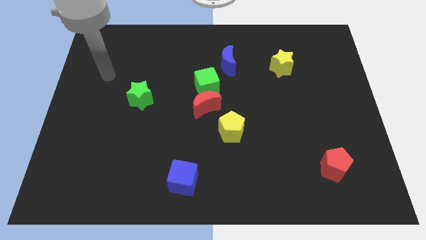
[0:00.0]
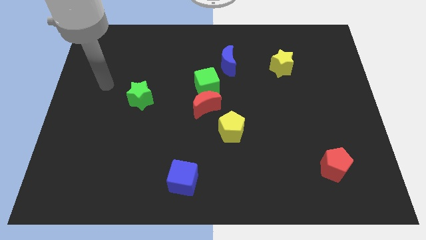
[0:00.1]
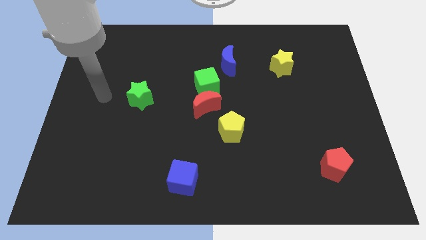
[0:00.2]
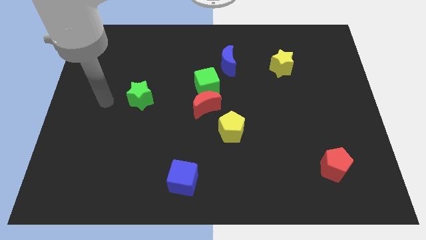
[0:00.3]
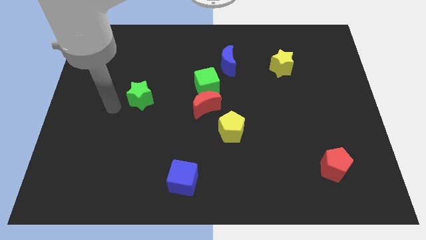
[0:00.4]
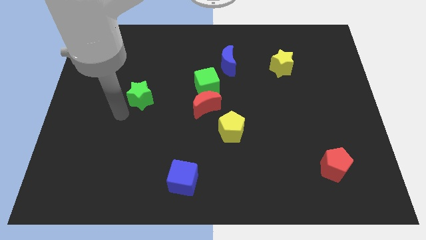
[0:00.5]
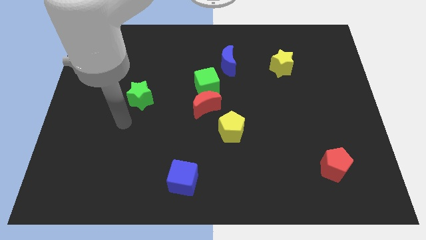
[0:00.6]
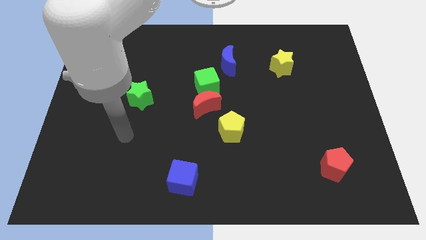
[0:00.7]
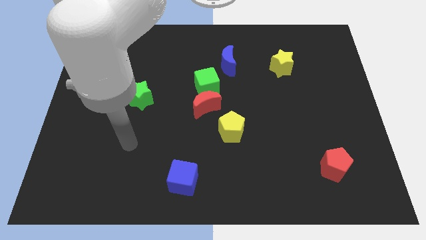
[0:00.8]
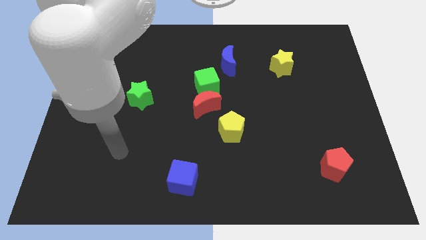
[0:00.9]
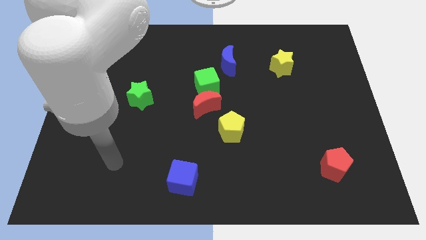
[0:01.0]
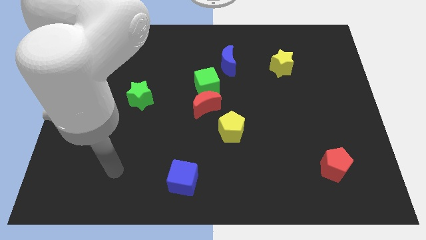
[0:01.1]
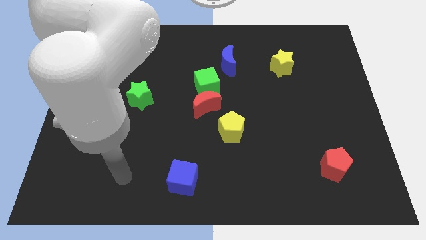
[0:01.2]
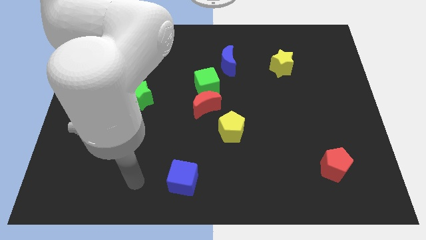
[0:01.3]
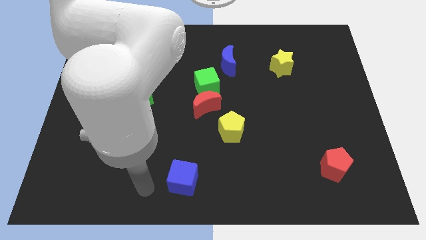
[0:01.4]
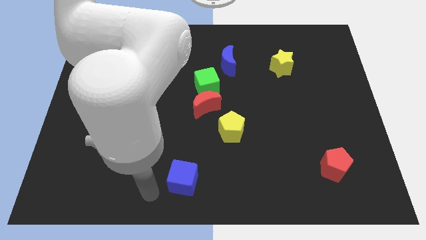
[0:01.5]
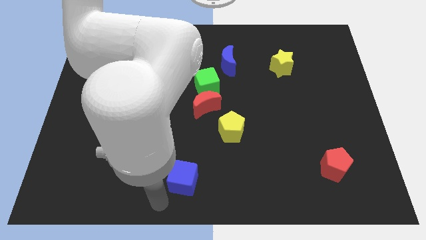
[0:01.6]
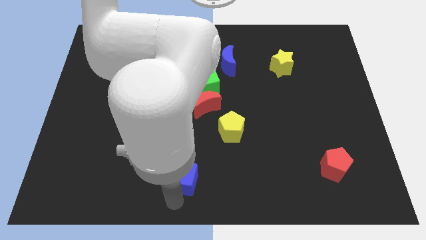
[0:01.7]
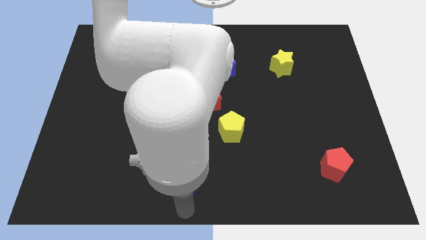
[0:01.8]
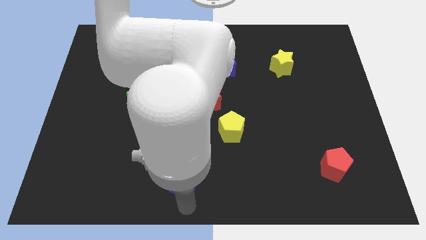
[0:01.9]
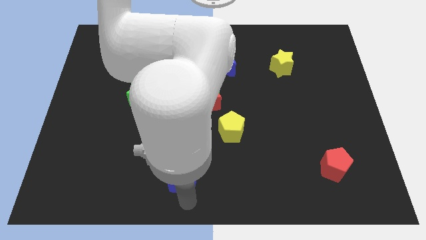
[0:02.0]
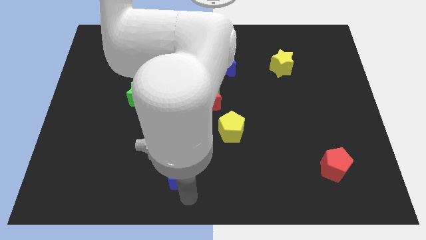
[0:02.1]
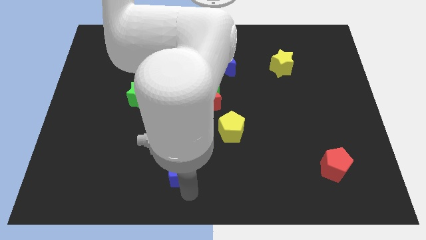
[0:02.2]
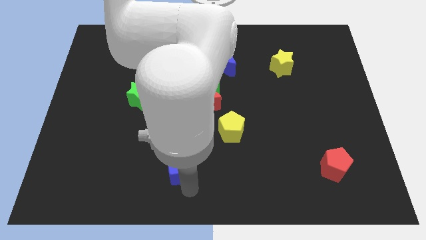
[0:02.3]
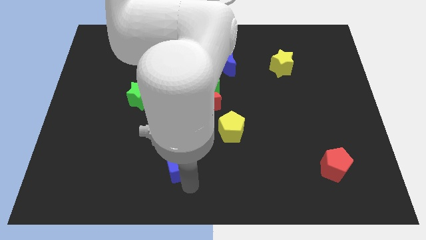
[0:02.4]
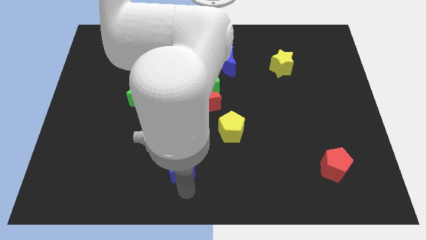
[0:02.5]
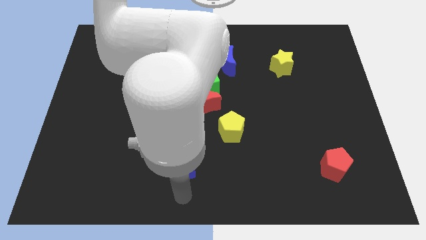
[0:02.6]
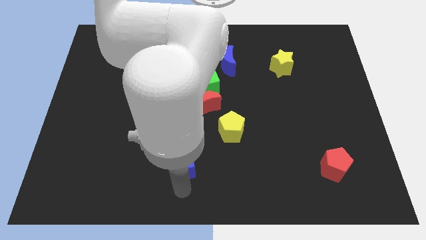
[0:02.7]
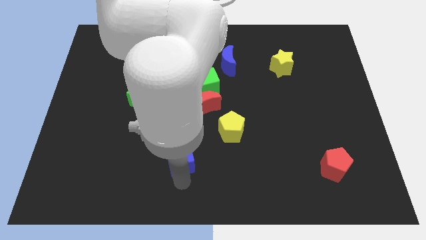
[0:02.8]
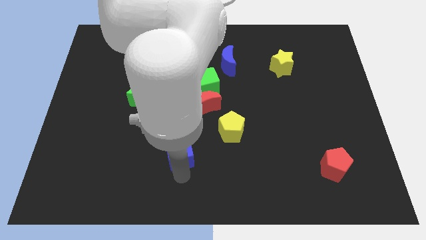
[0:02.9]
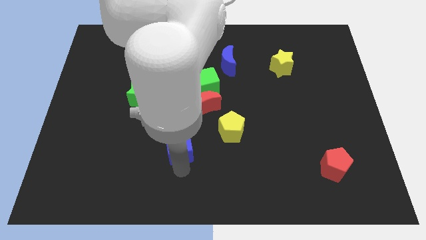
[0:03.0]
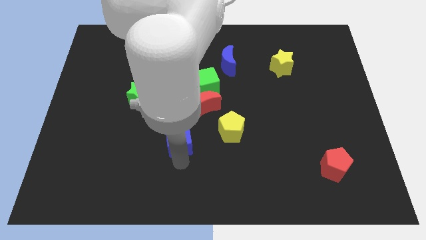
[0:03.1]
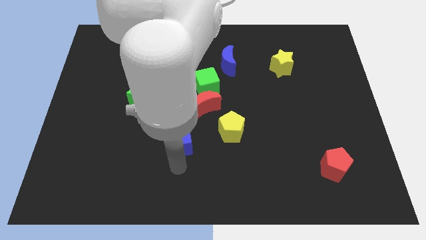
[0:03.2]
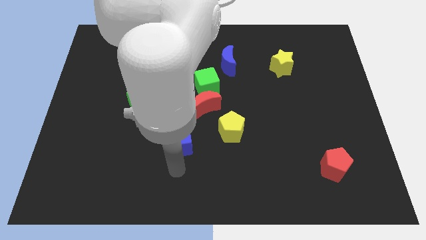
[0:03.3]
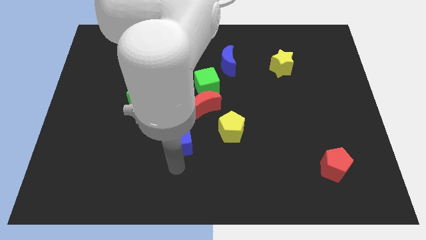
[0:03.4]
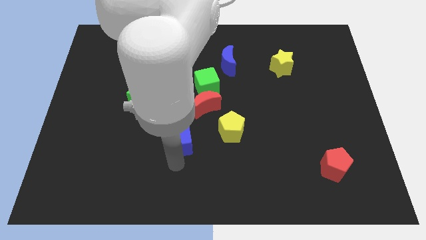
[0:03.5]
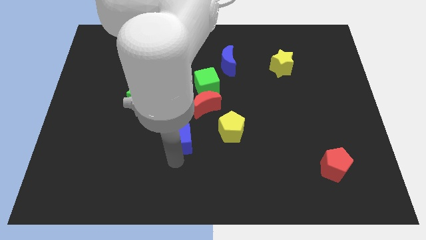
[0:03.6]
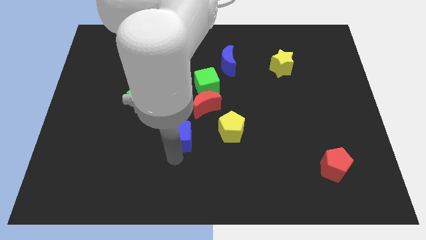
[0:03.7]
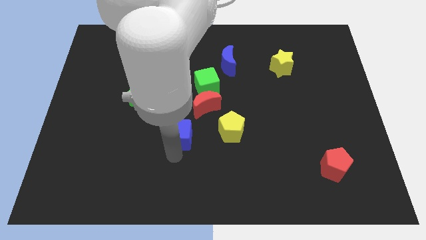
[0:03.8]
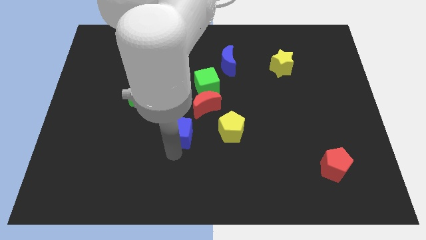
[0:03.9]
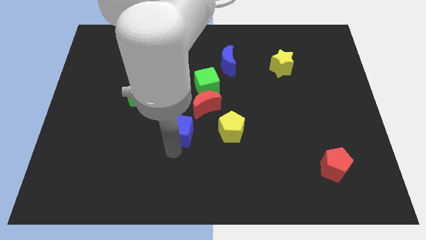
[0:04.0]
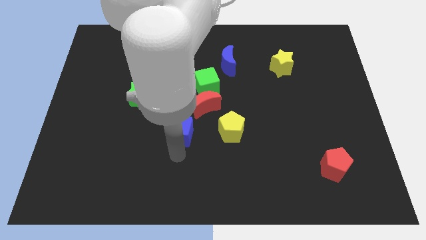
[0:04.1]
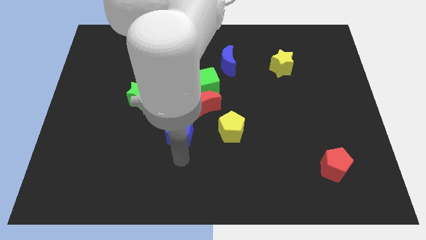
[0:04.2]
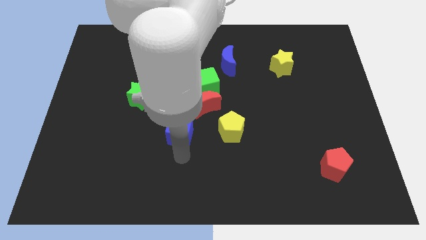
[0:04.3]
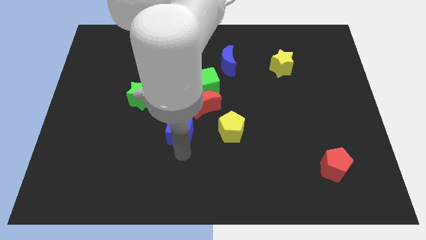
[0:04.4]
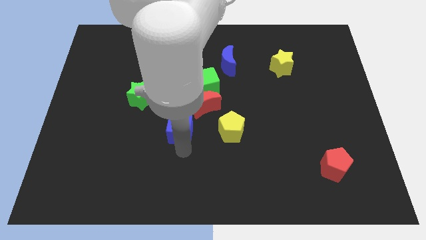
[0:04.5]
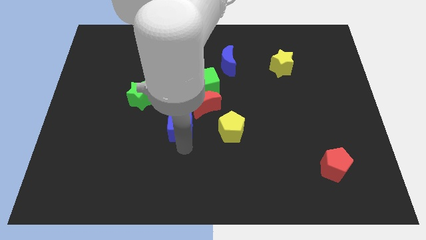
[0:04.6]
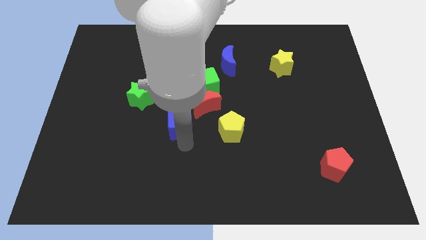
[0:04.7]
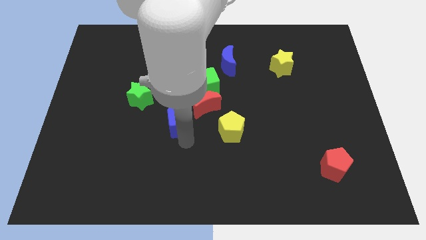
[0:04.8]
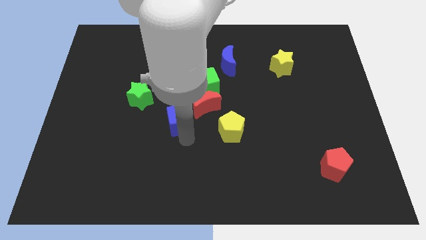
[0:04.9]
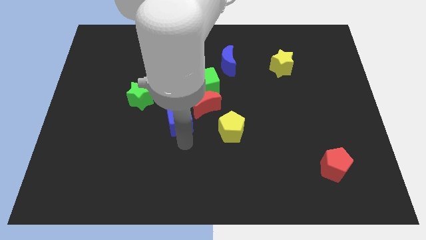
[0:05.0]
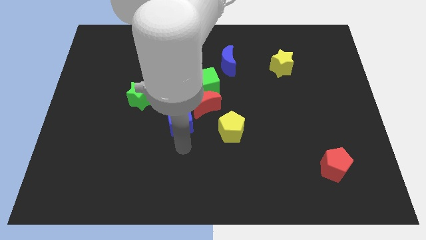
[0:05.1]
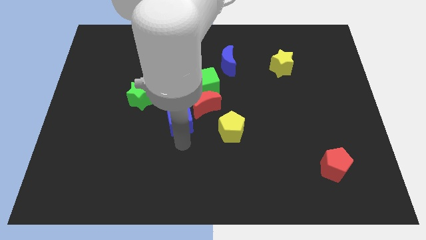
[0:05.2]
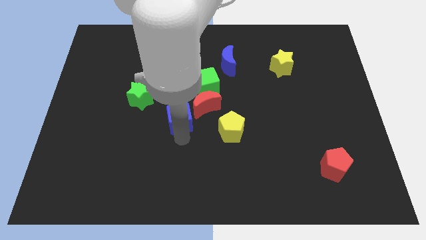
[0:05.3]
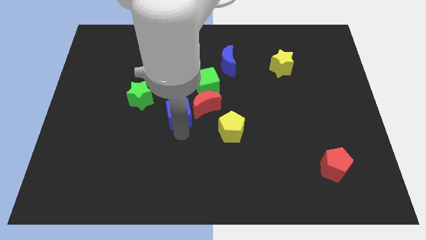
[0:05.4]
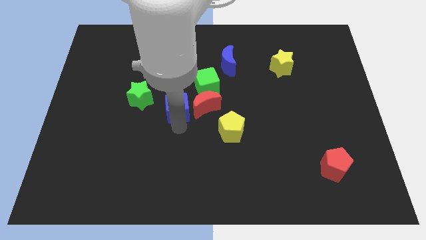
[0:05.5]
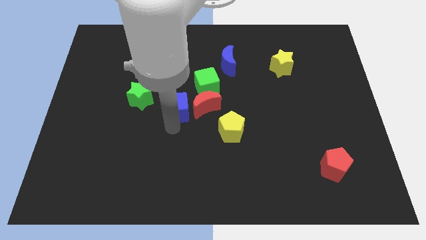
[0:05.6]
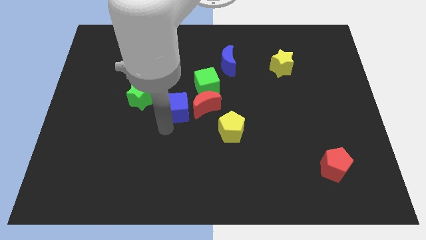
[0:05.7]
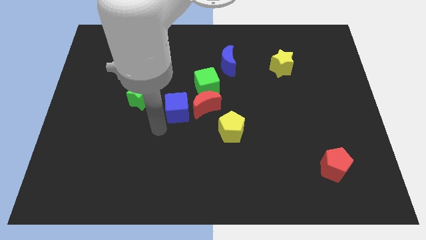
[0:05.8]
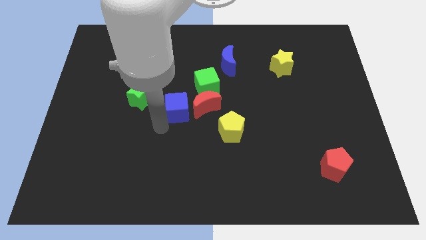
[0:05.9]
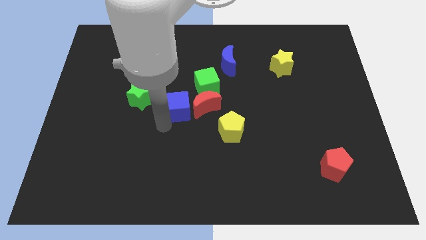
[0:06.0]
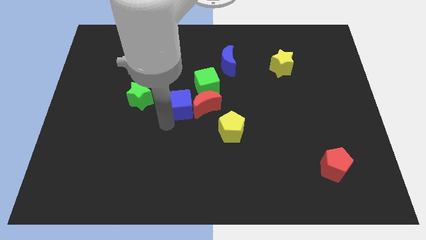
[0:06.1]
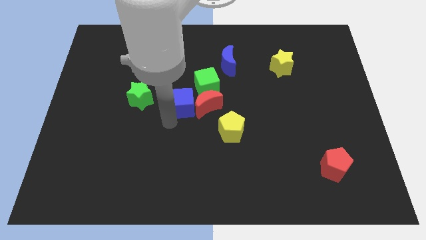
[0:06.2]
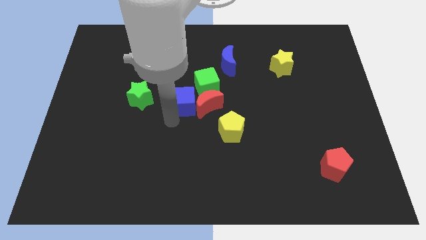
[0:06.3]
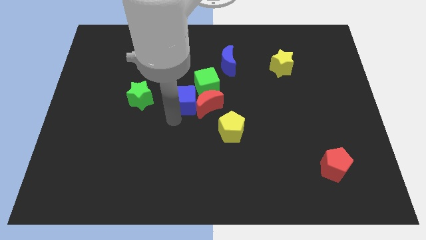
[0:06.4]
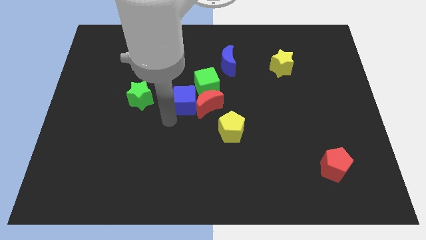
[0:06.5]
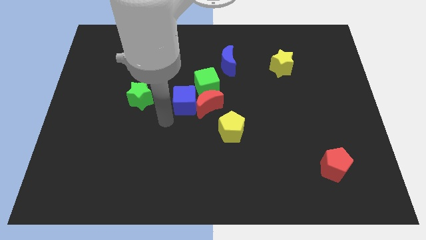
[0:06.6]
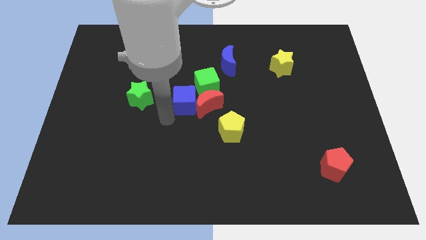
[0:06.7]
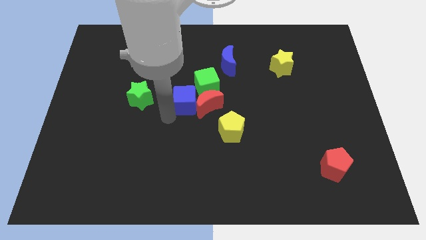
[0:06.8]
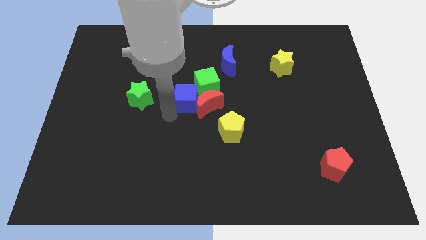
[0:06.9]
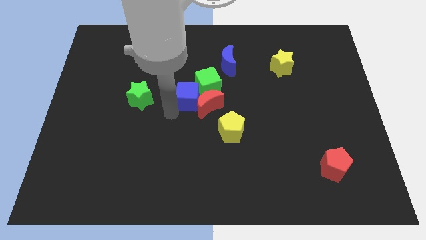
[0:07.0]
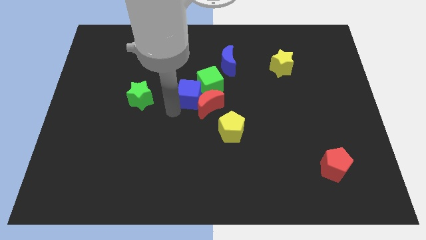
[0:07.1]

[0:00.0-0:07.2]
put the blue cube towards the green cube

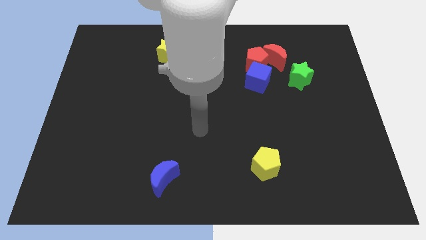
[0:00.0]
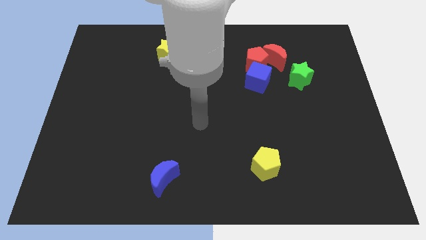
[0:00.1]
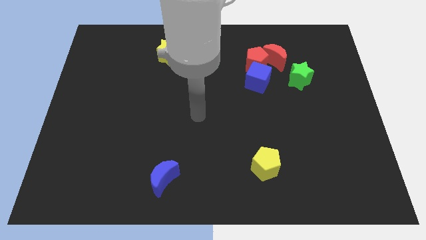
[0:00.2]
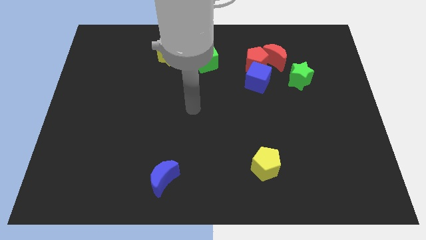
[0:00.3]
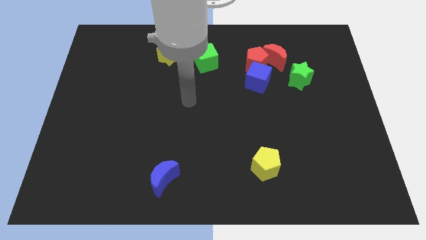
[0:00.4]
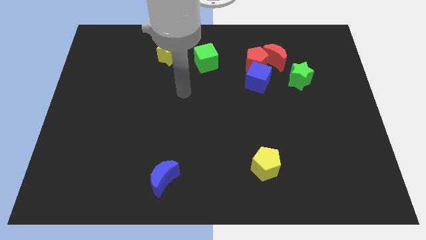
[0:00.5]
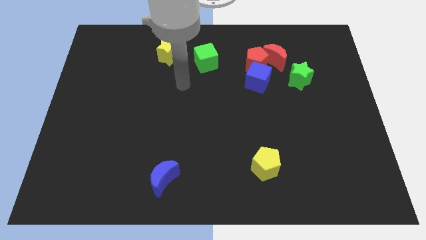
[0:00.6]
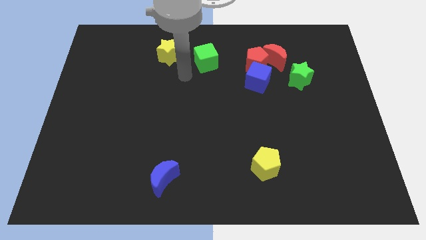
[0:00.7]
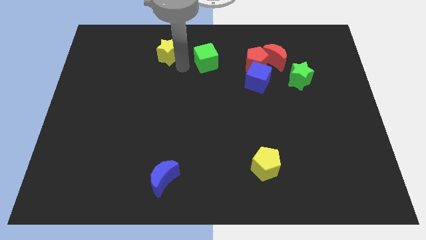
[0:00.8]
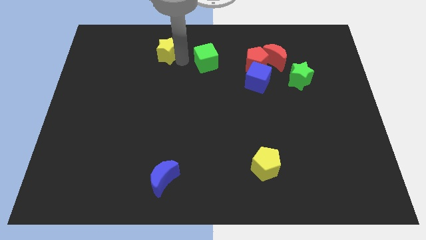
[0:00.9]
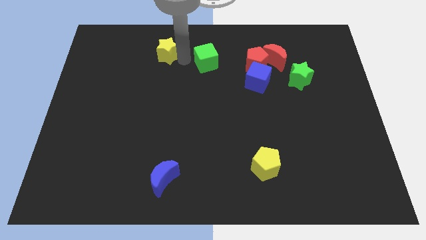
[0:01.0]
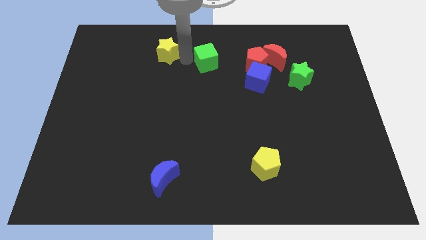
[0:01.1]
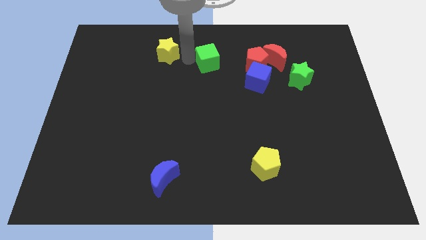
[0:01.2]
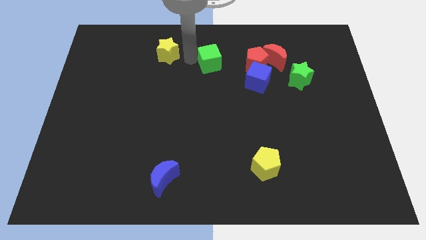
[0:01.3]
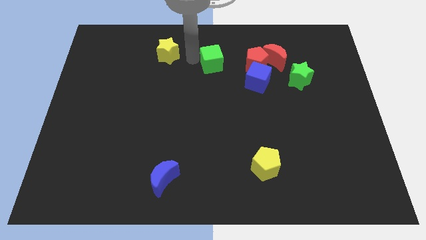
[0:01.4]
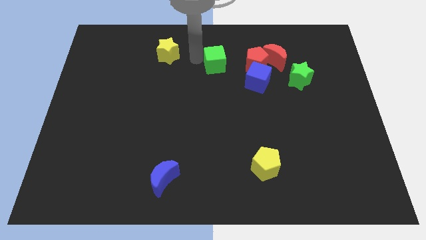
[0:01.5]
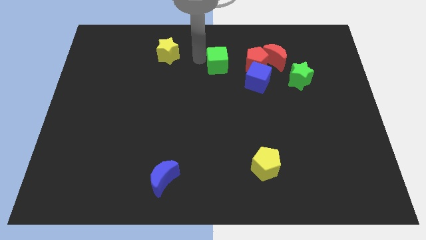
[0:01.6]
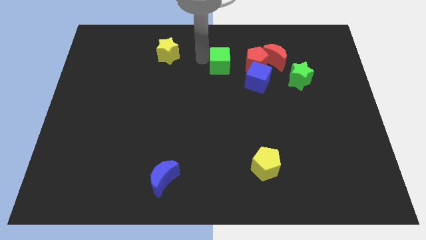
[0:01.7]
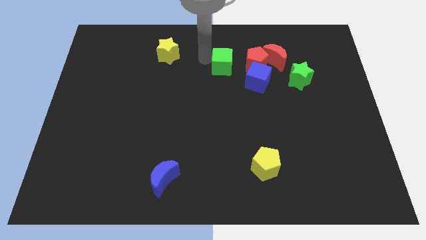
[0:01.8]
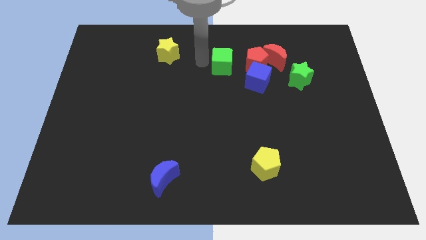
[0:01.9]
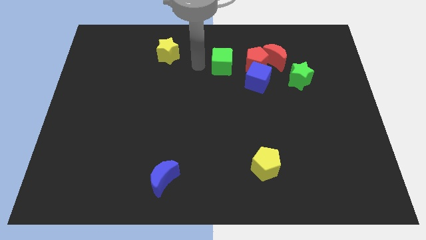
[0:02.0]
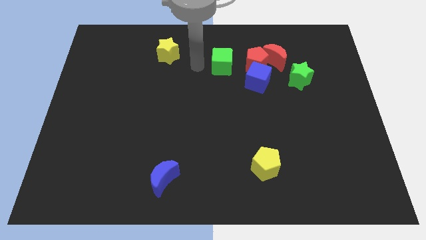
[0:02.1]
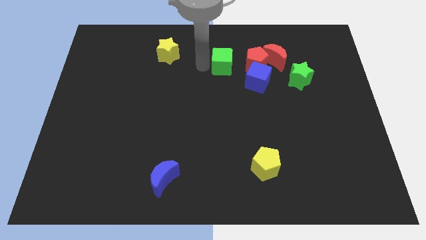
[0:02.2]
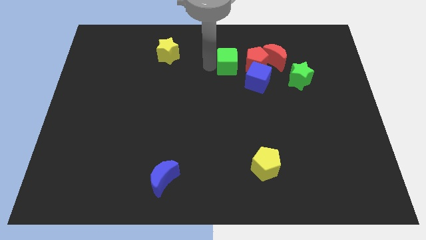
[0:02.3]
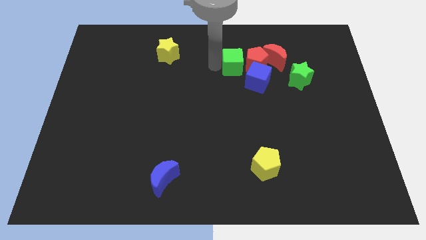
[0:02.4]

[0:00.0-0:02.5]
push the green cube to the red pentagon
